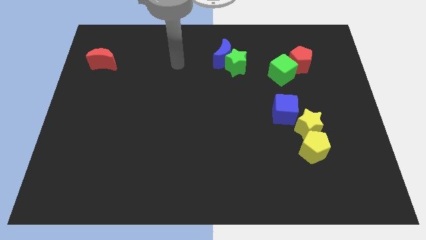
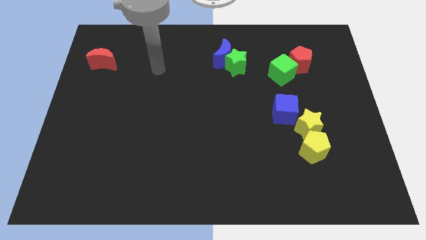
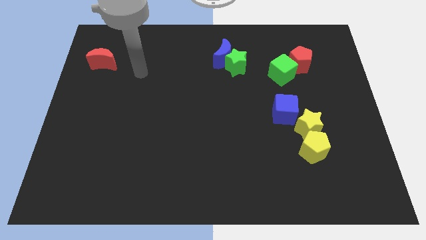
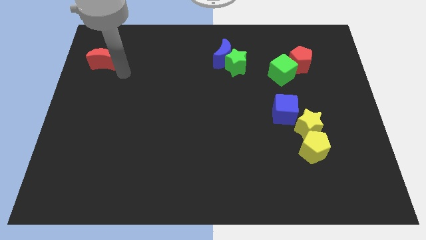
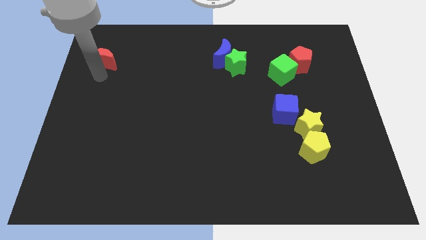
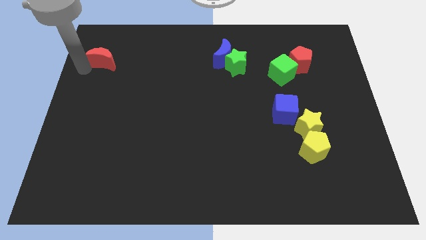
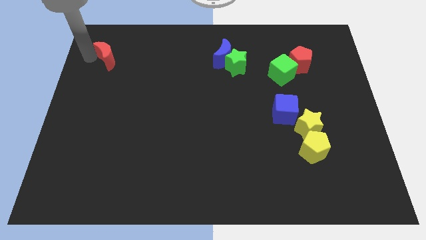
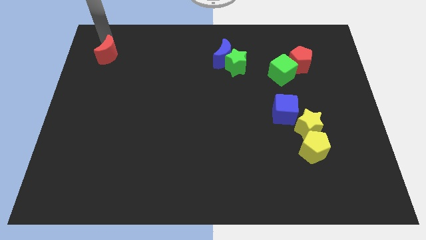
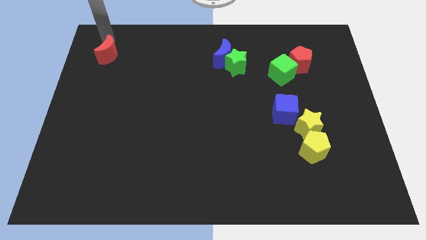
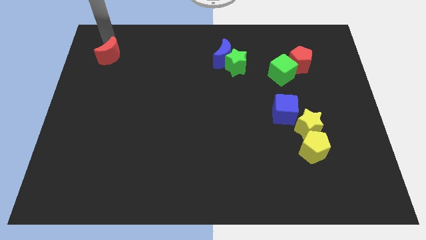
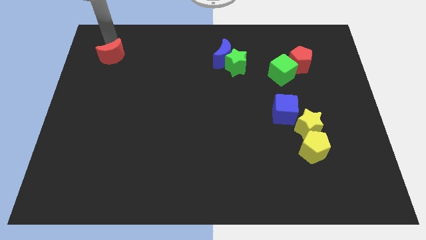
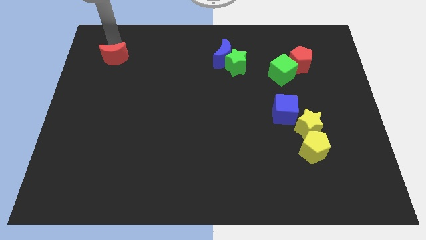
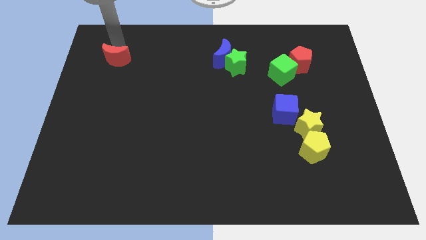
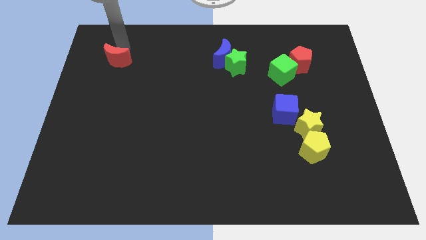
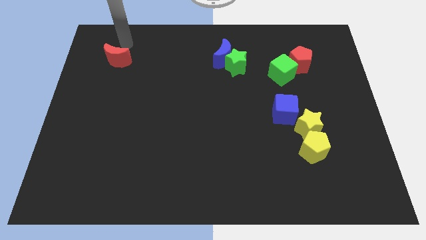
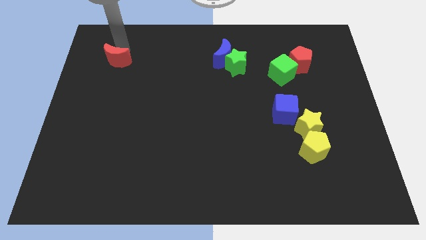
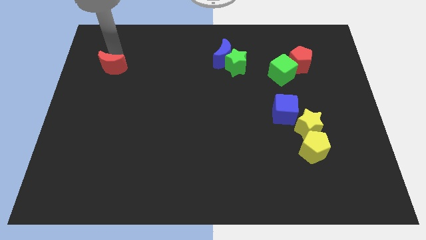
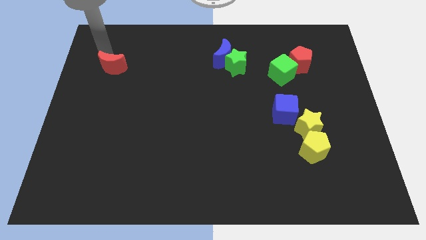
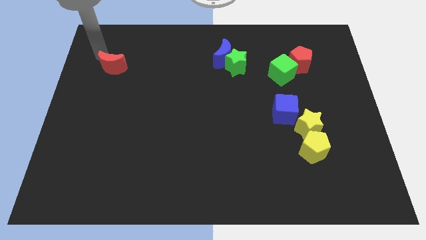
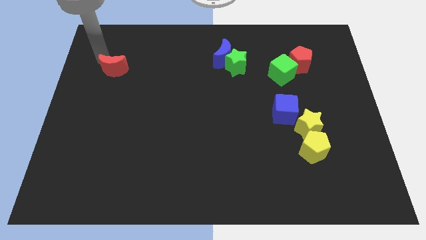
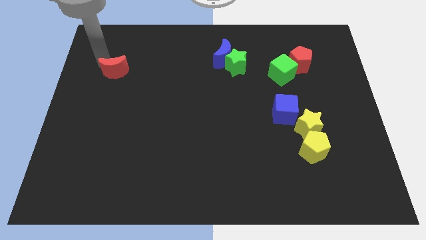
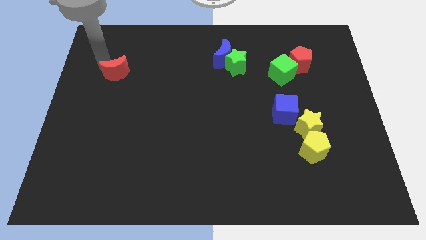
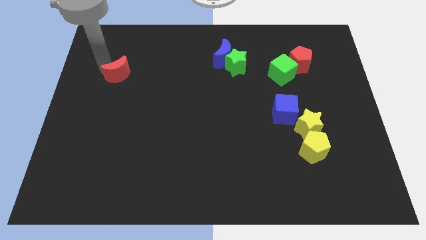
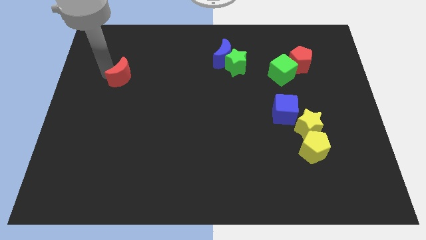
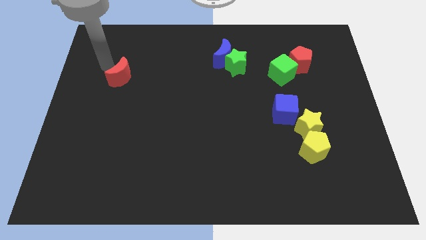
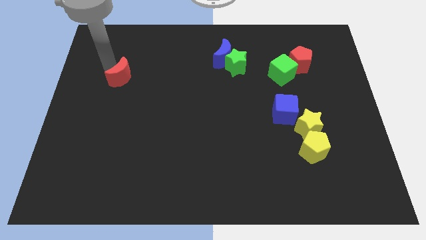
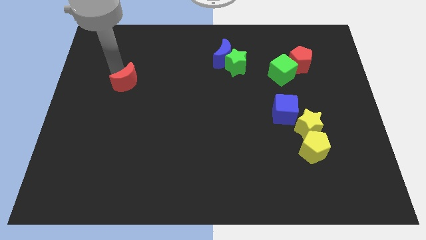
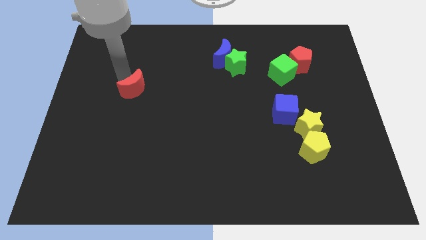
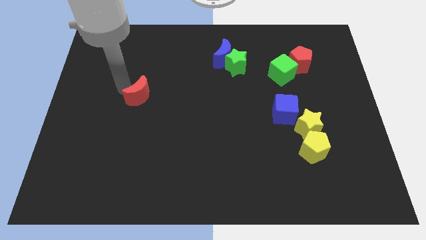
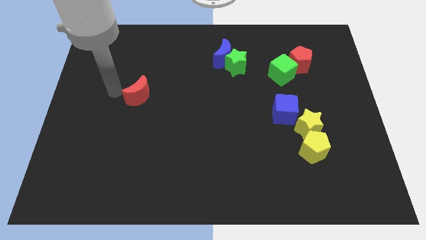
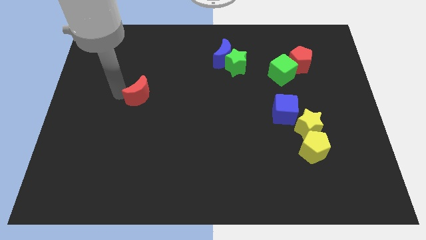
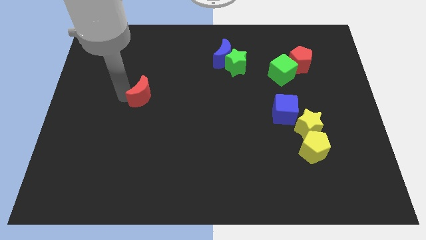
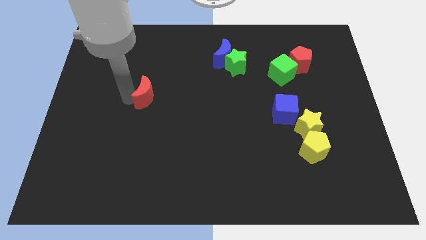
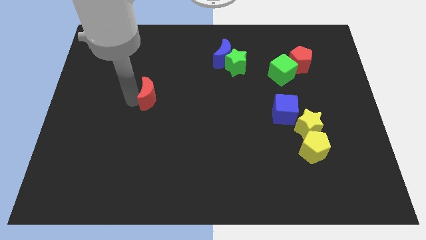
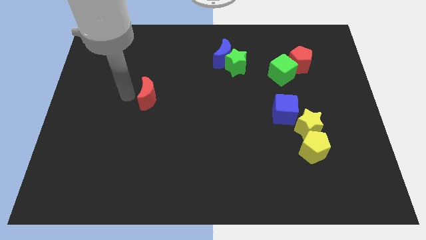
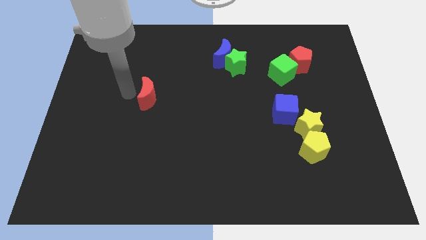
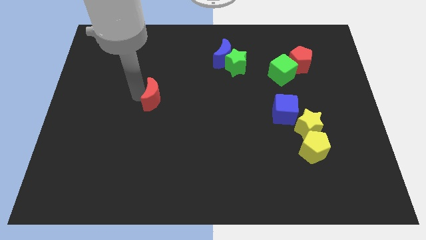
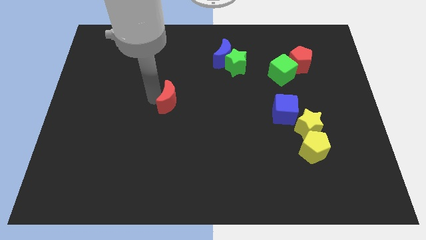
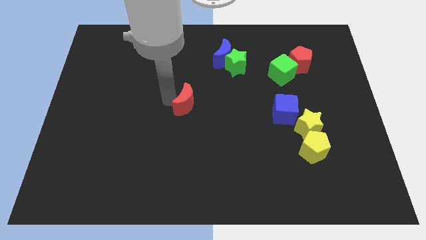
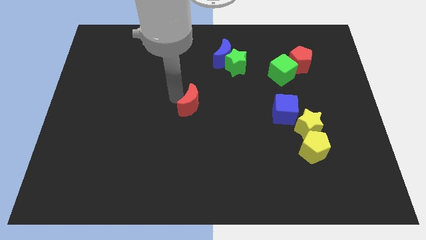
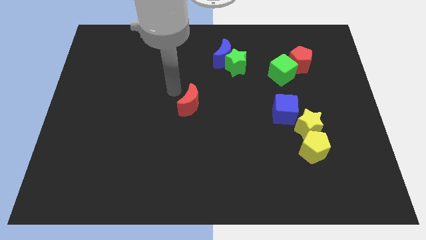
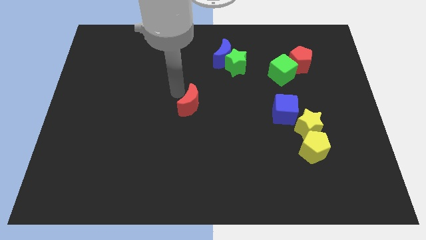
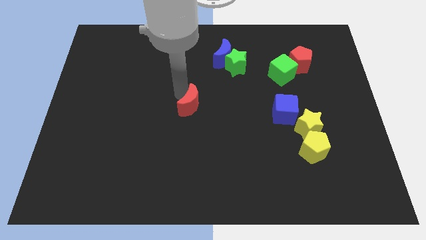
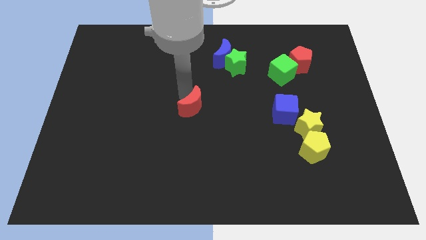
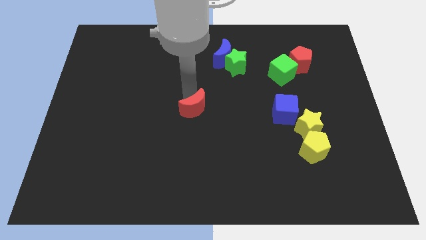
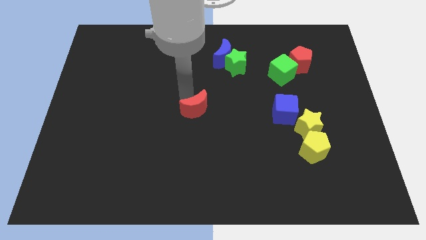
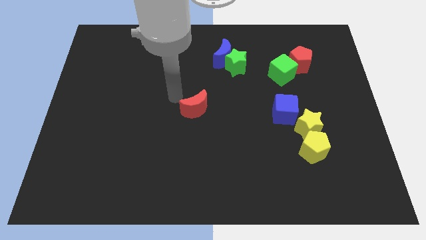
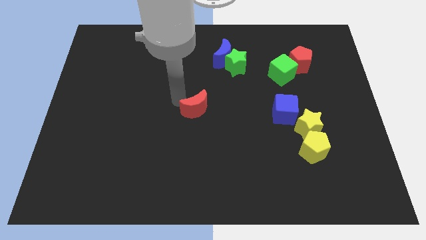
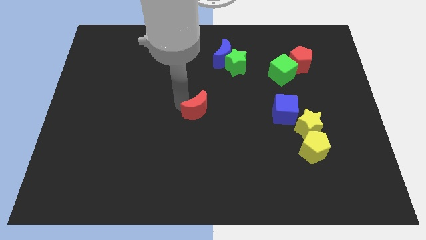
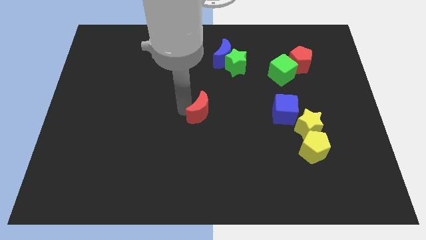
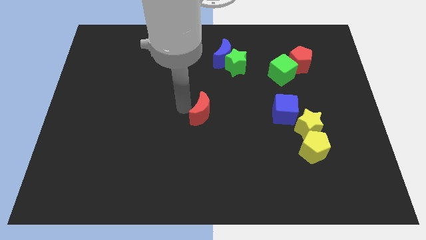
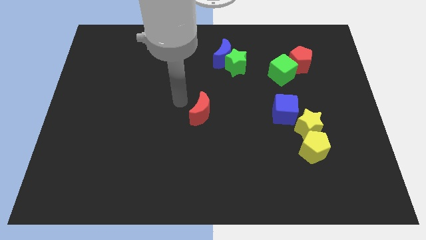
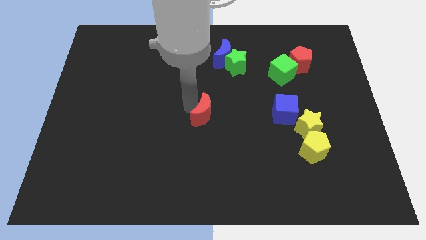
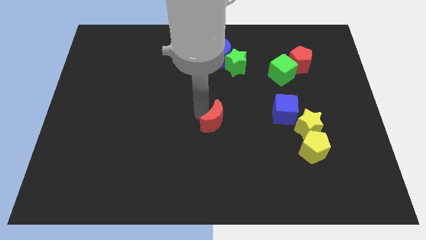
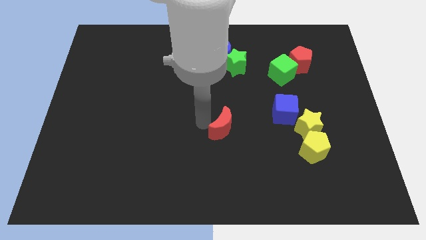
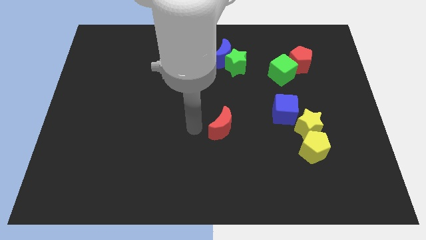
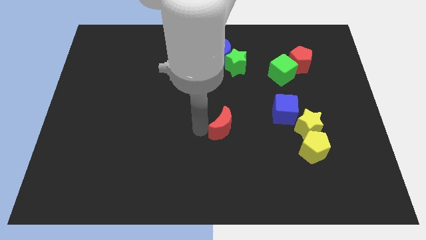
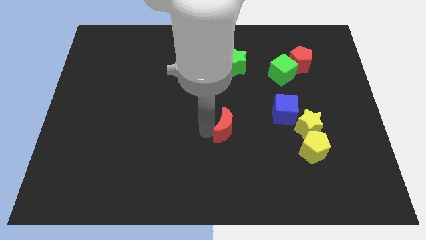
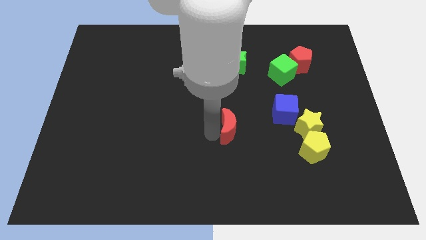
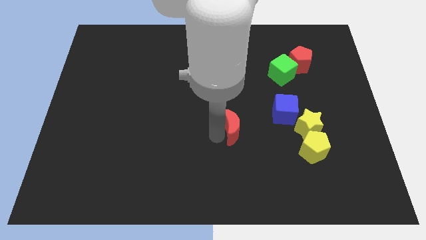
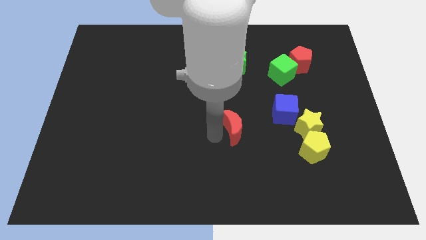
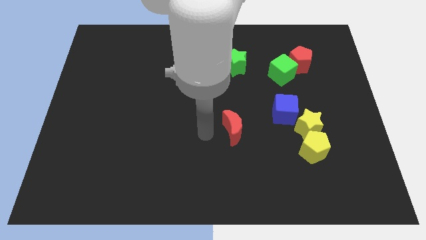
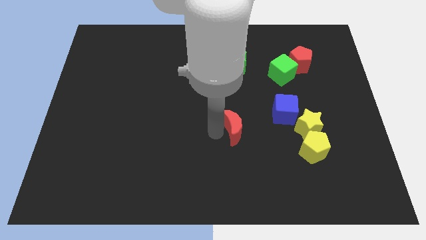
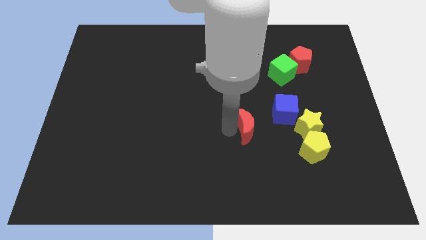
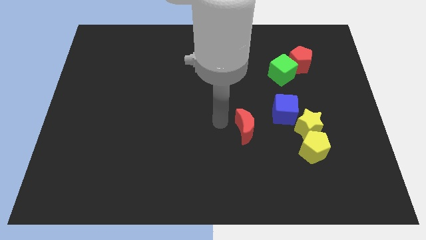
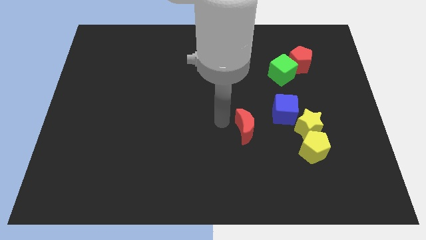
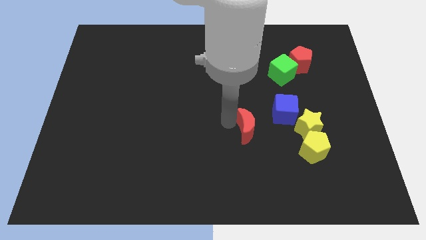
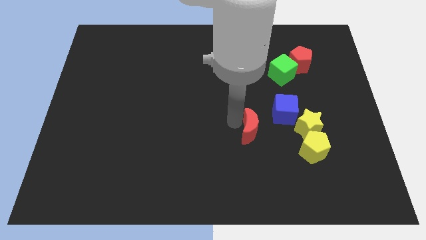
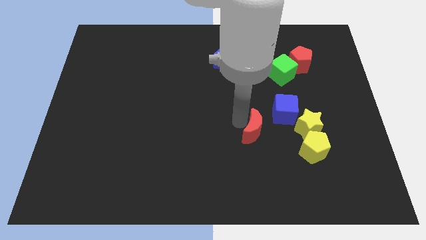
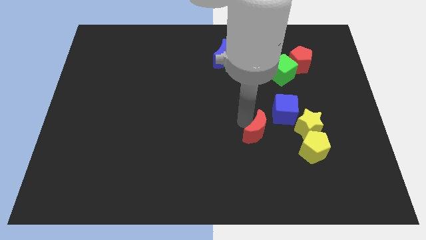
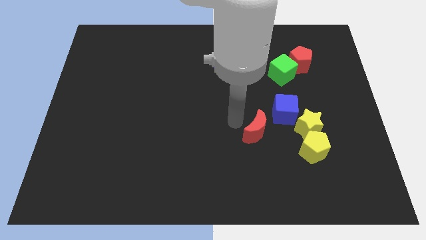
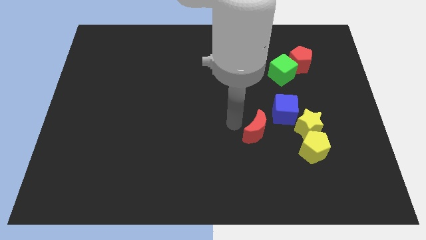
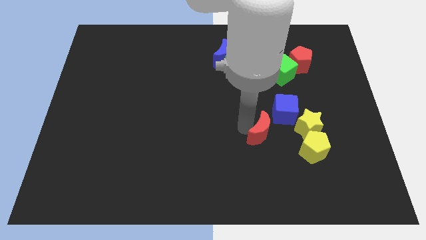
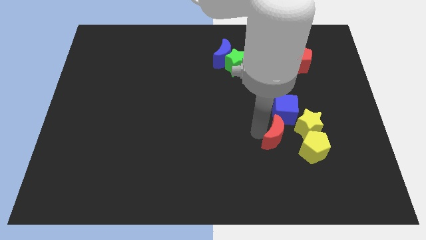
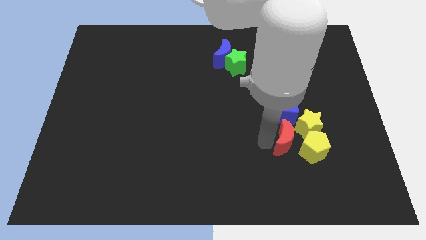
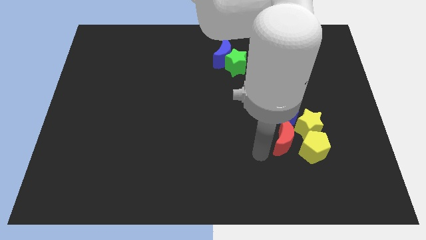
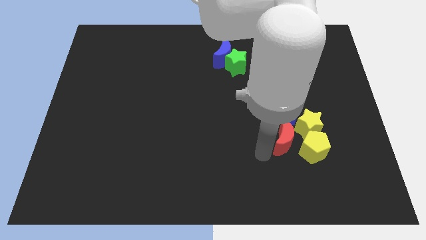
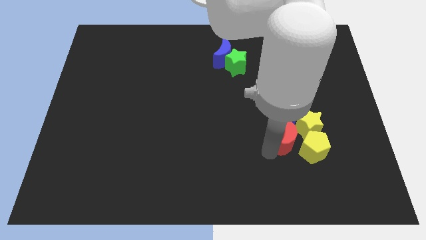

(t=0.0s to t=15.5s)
move the red moon close to the yellow star
